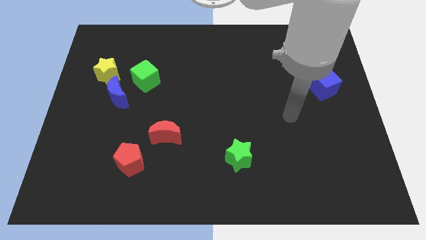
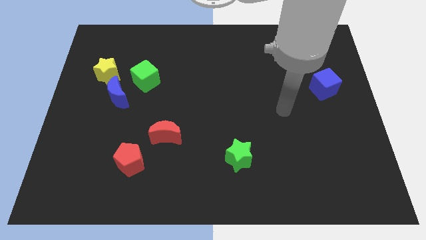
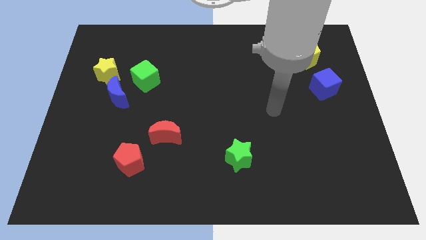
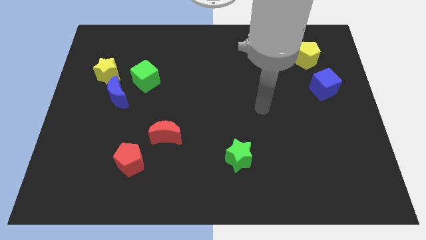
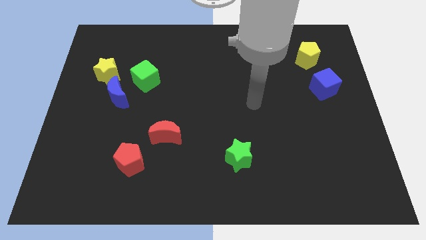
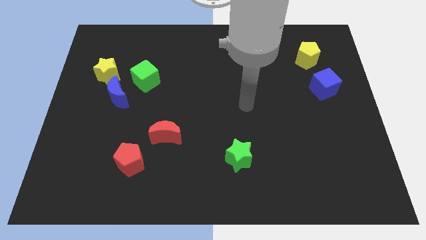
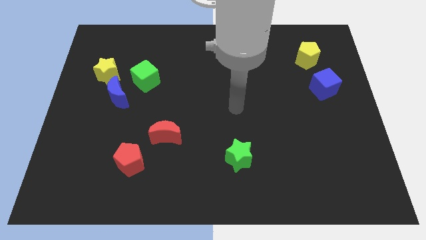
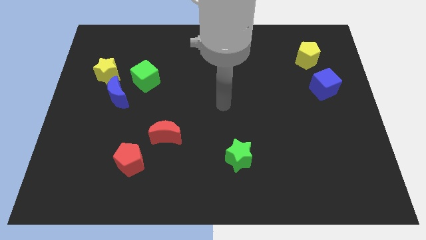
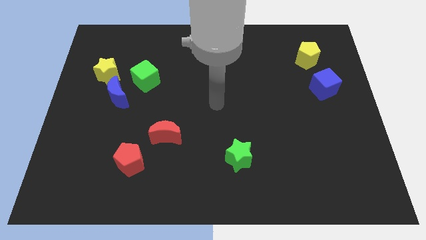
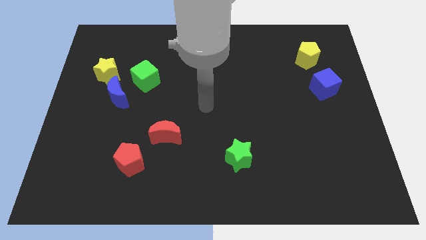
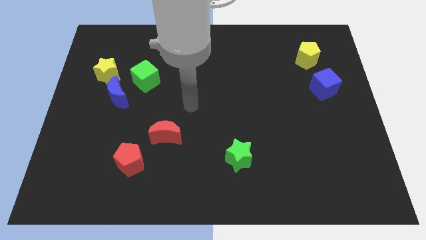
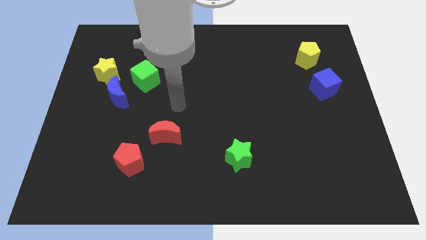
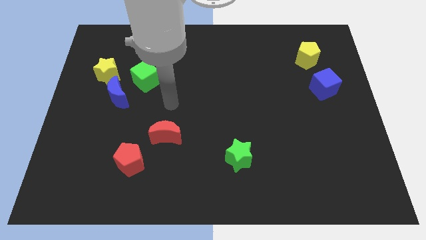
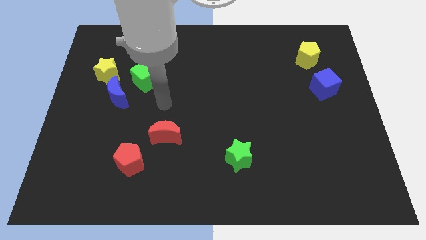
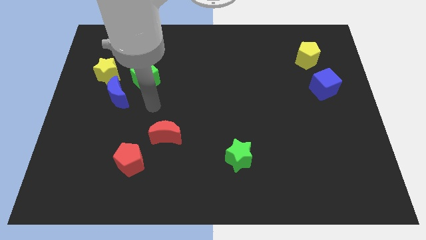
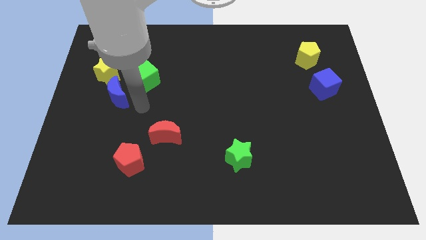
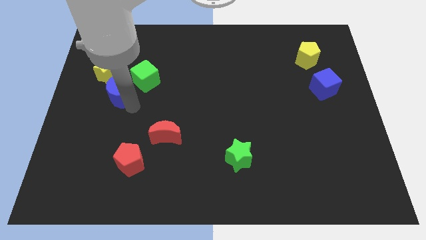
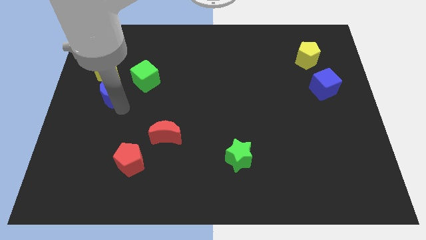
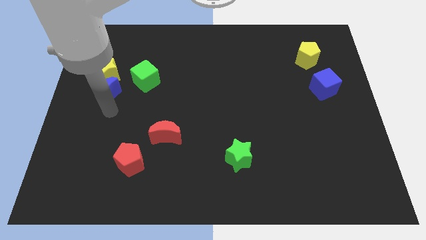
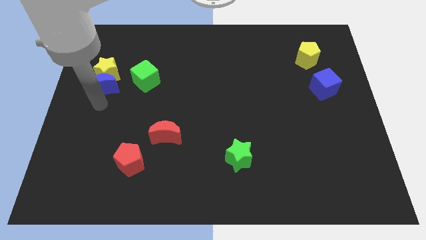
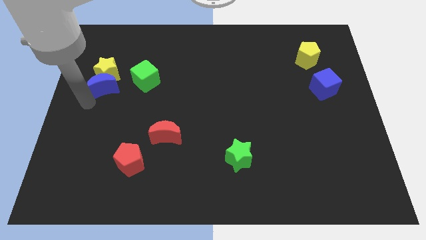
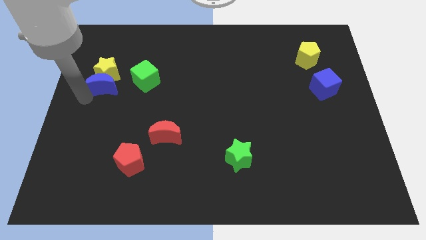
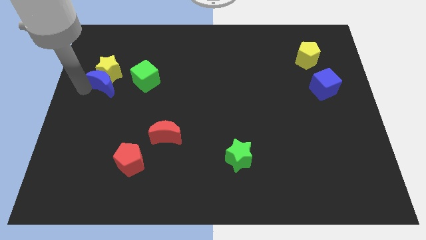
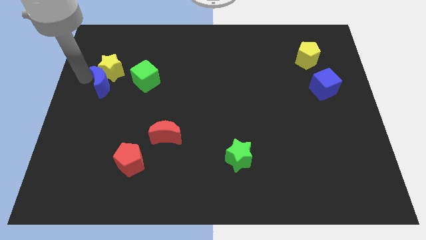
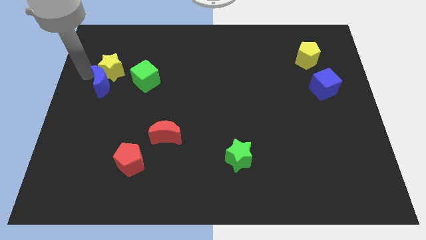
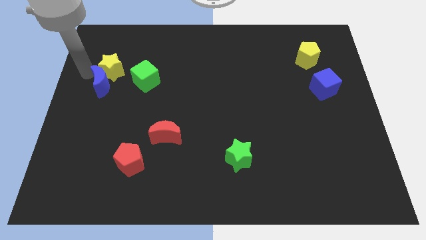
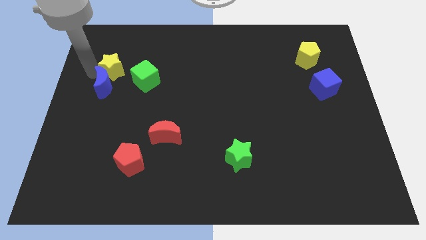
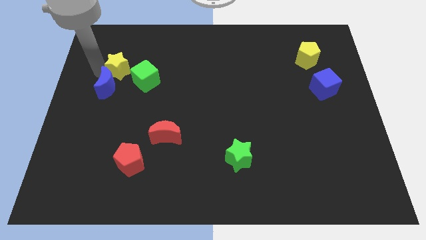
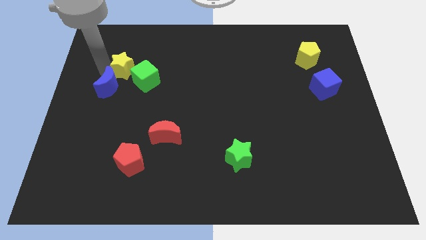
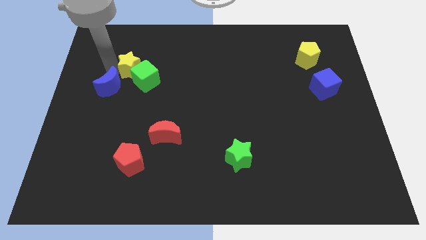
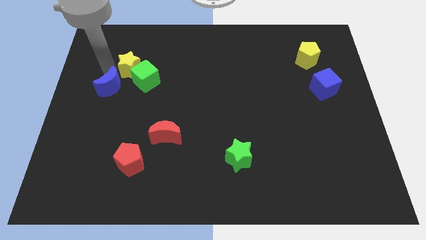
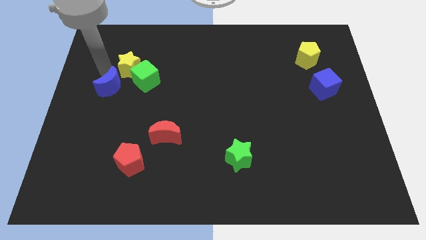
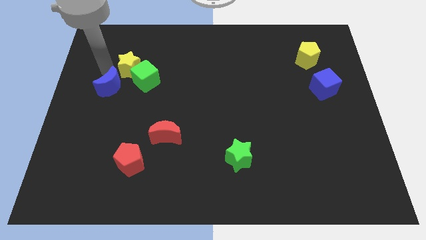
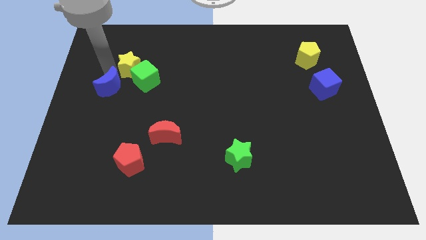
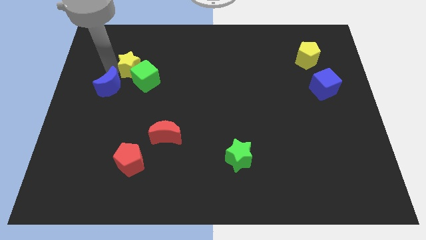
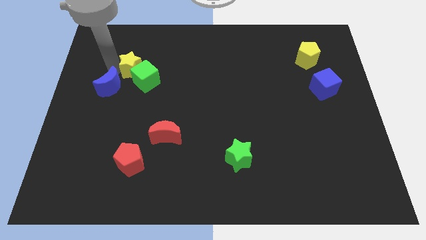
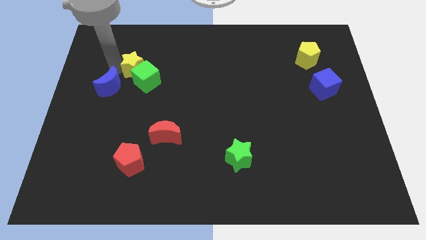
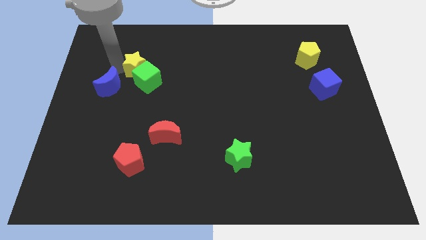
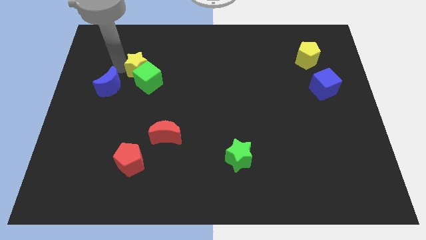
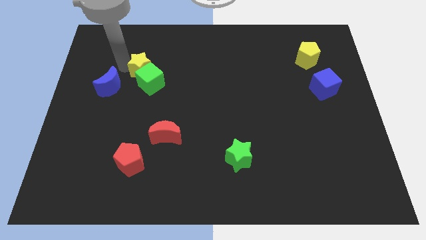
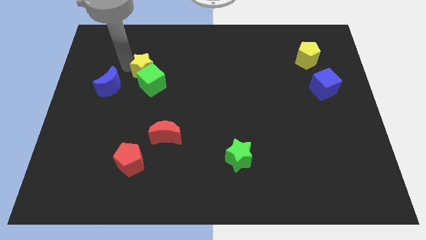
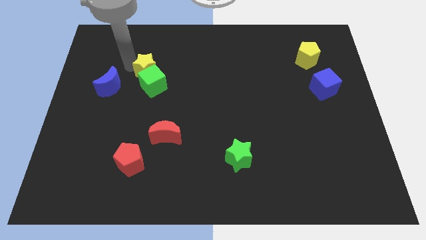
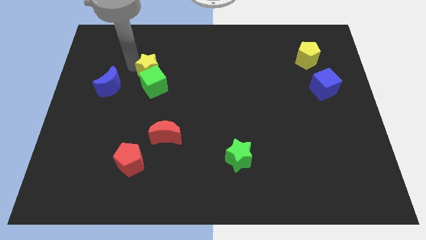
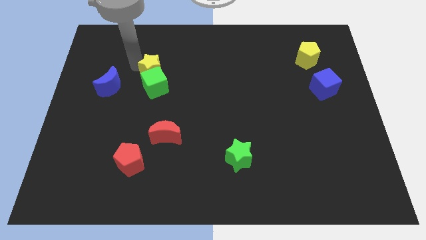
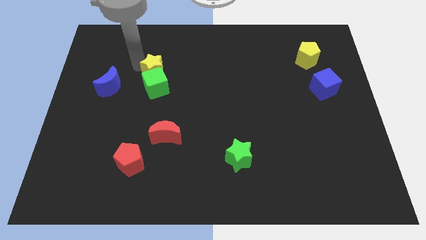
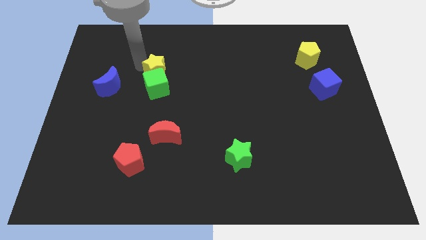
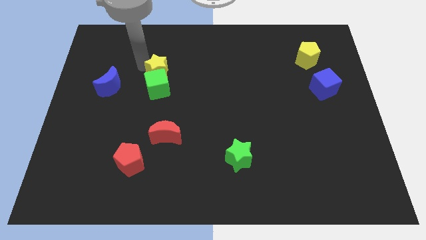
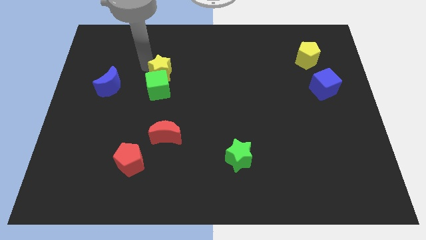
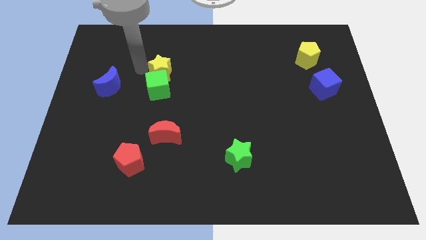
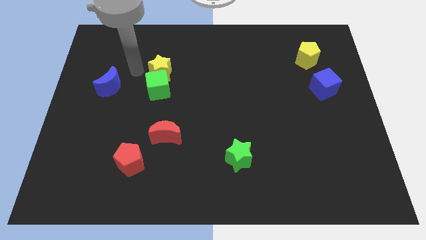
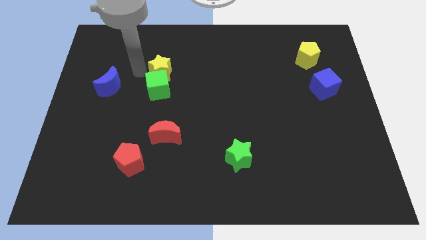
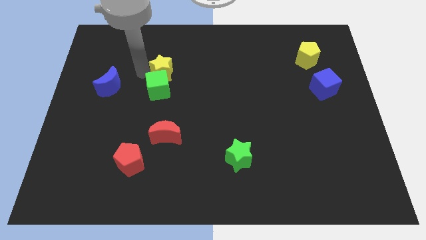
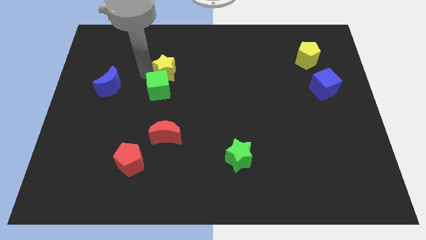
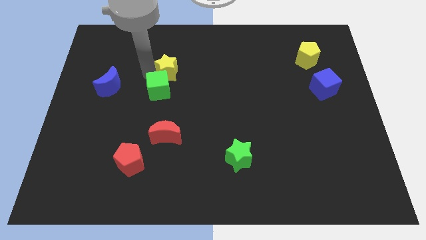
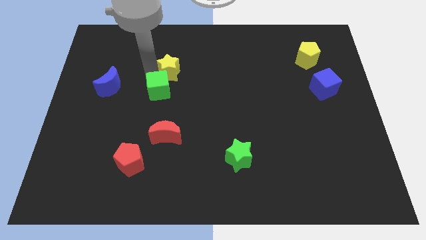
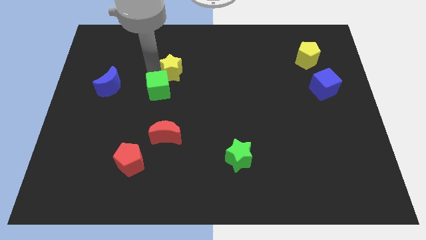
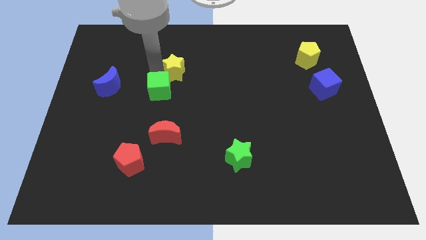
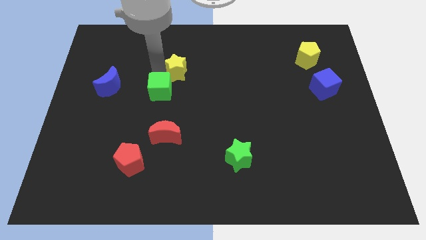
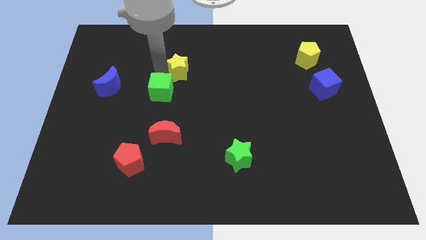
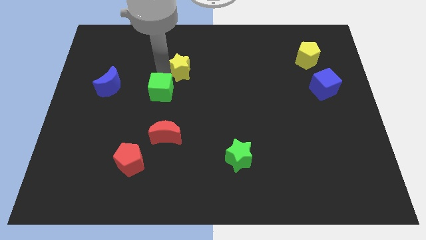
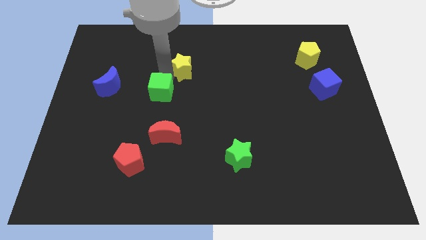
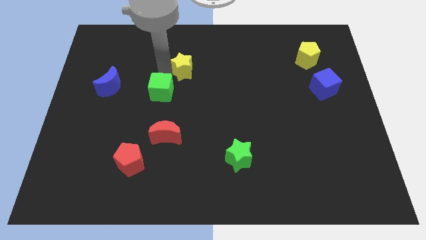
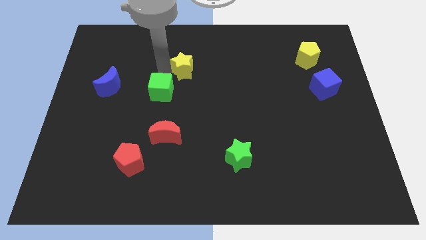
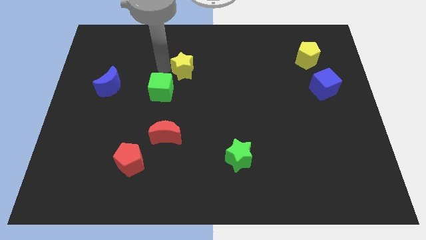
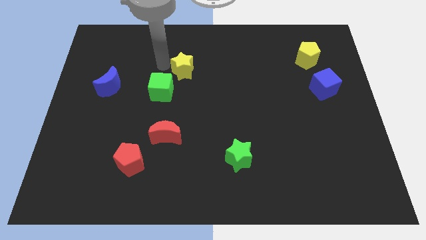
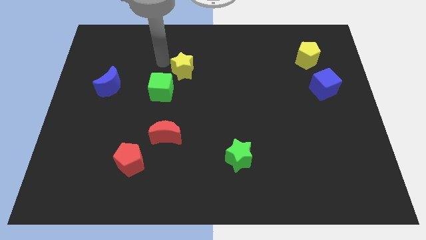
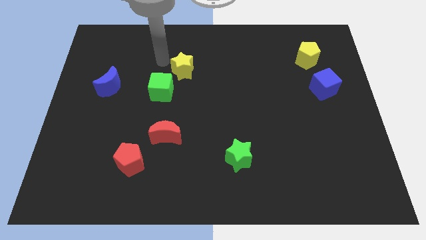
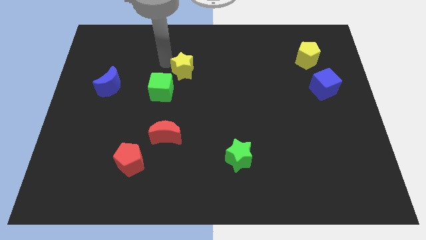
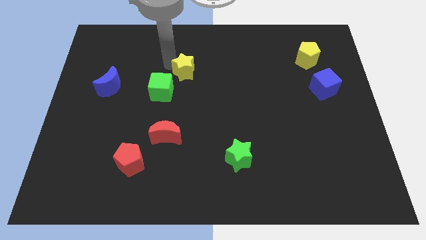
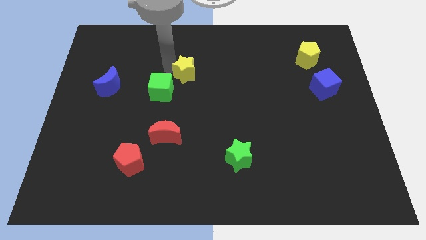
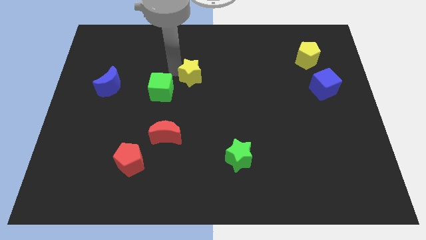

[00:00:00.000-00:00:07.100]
slide the yellow star right

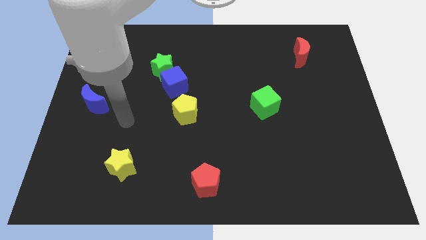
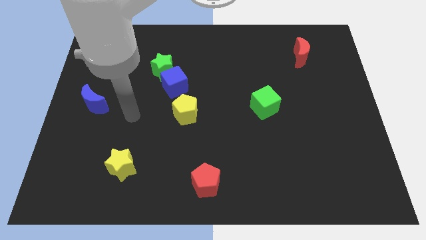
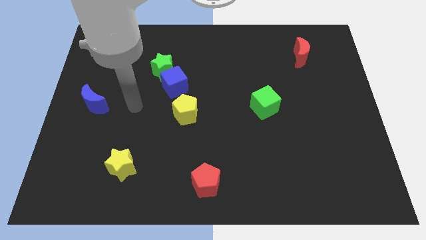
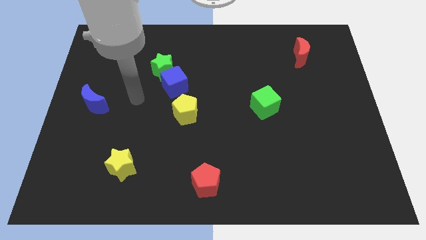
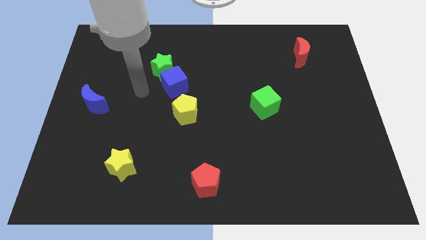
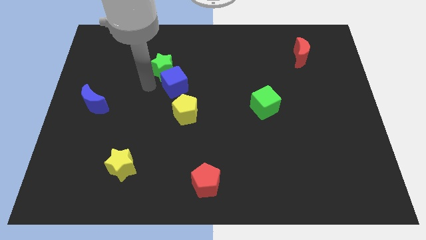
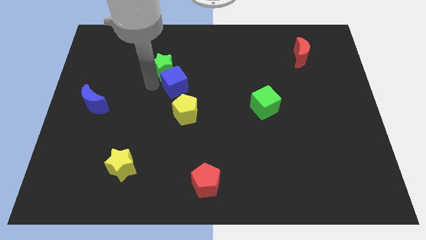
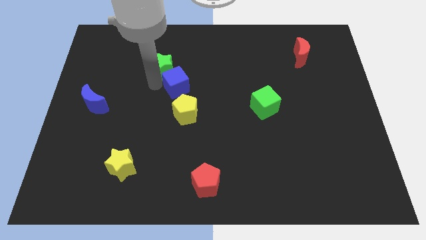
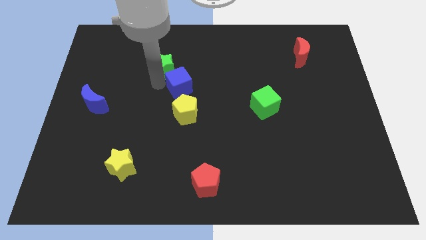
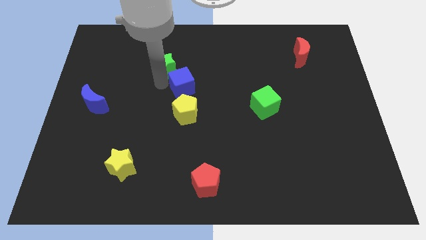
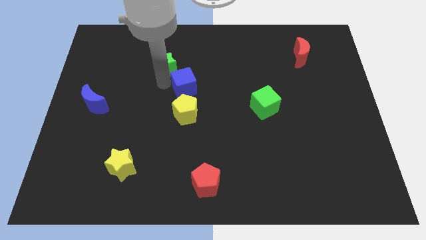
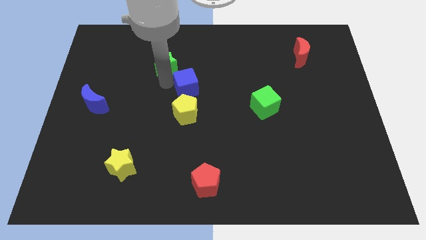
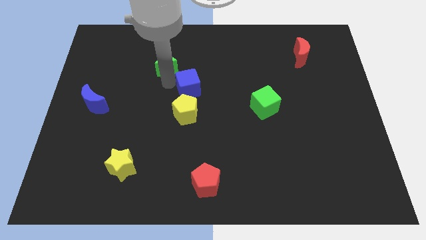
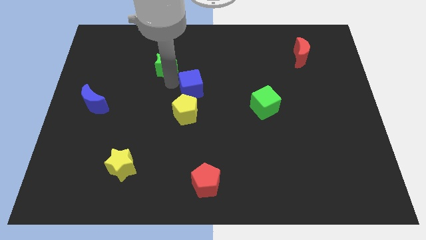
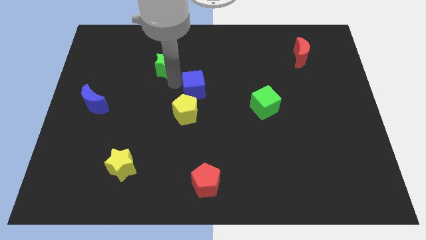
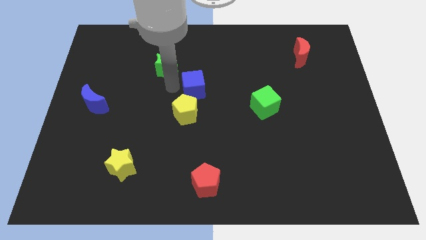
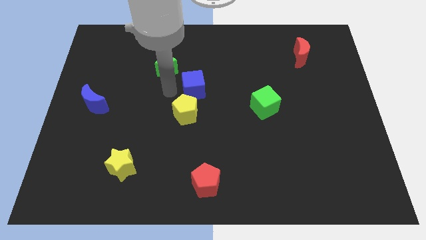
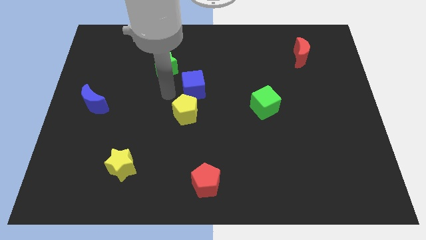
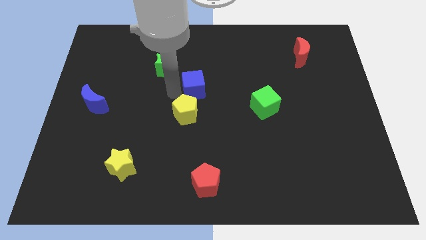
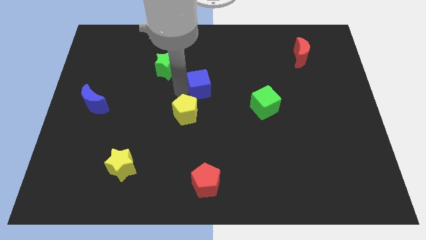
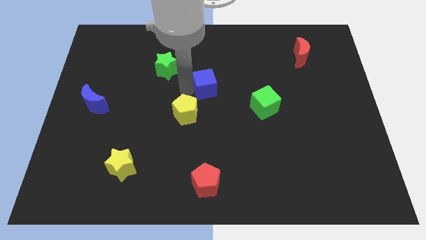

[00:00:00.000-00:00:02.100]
push the blue cube right slightly
